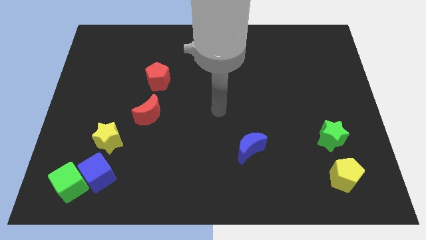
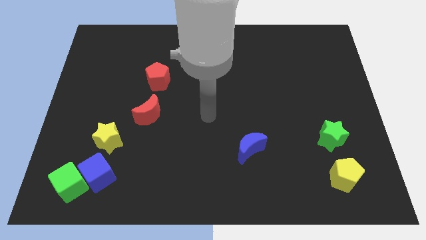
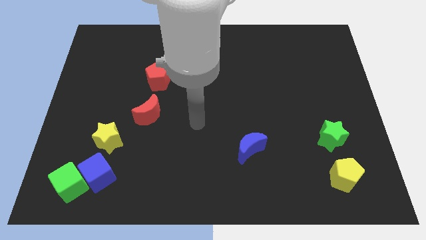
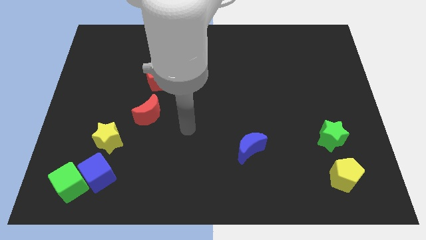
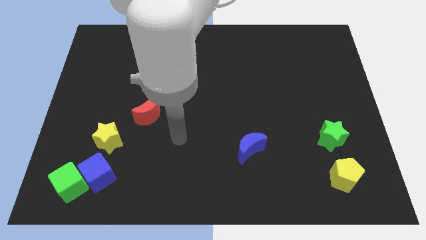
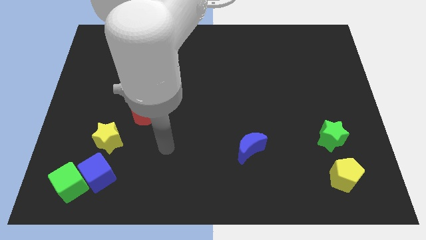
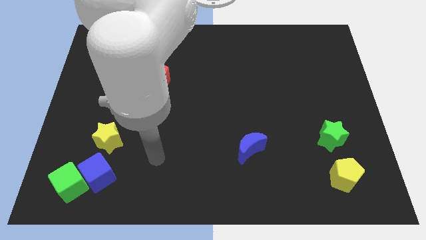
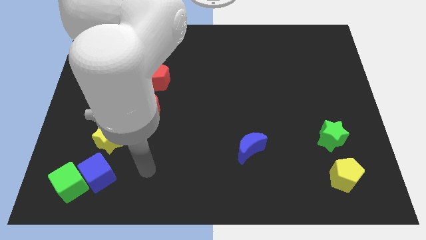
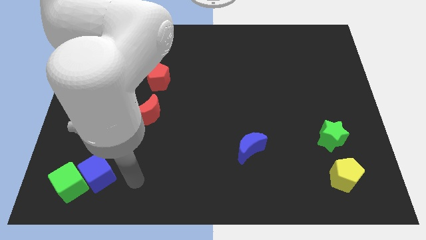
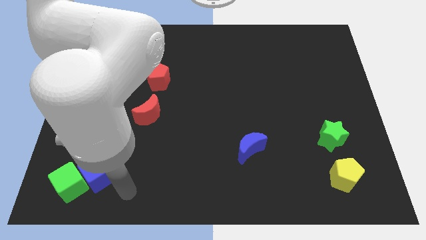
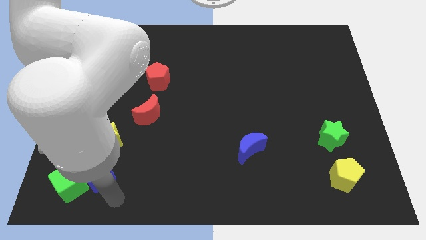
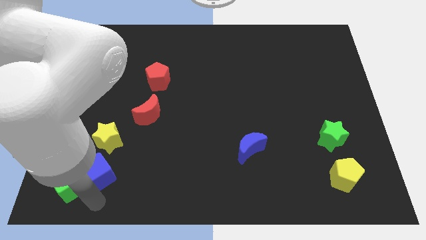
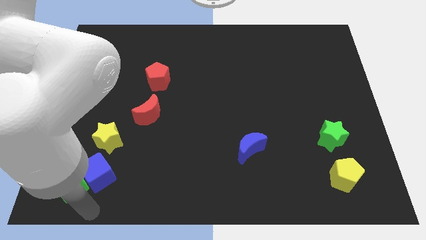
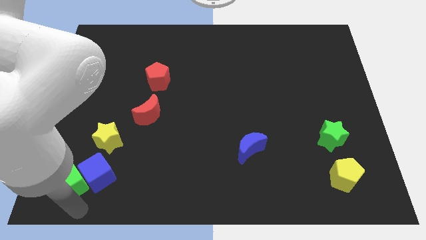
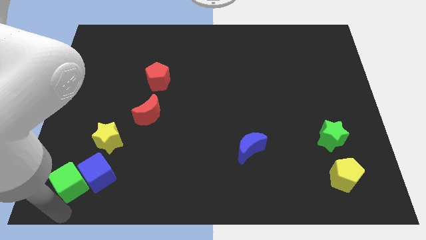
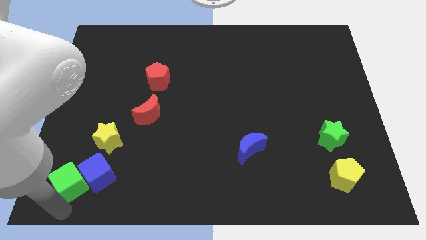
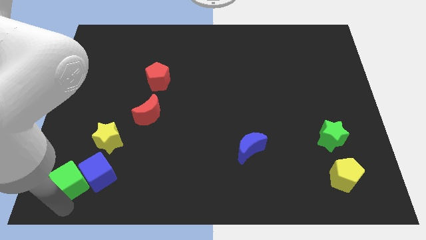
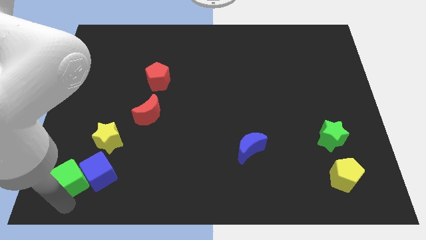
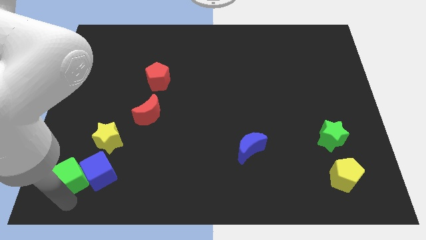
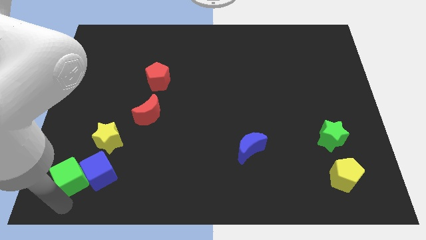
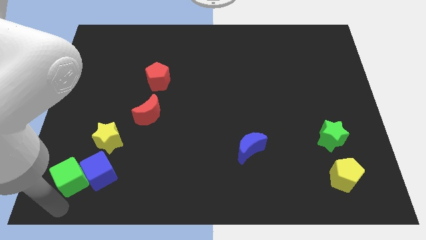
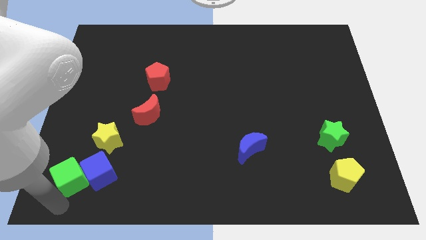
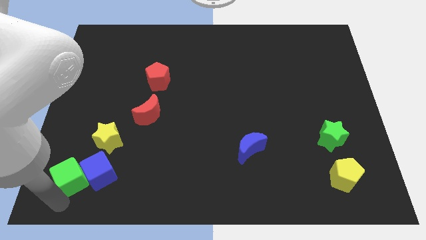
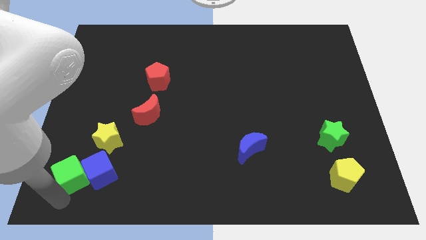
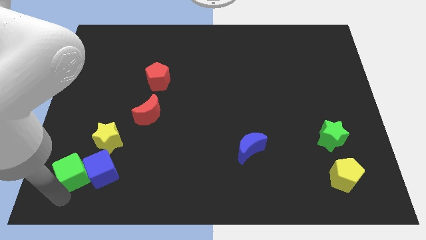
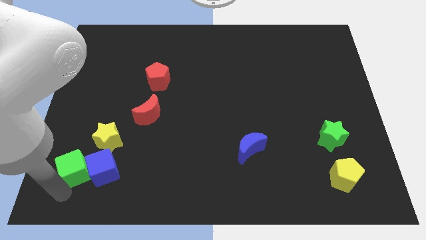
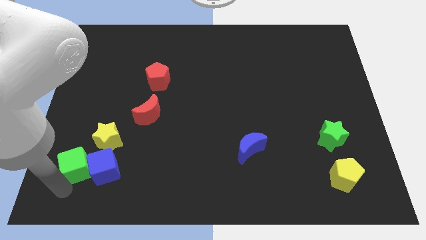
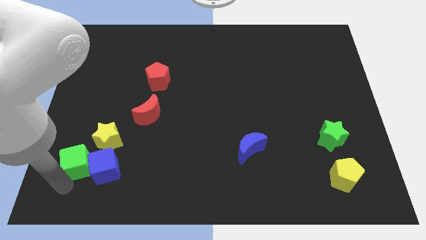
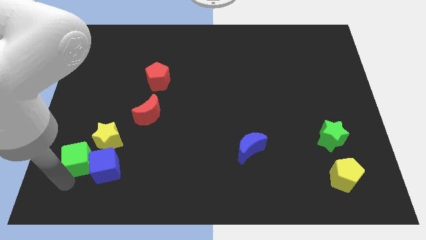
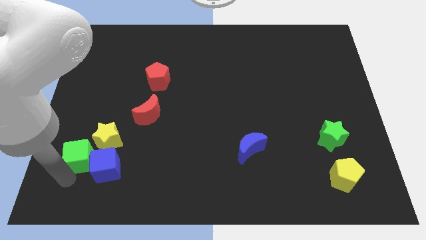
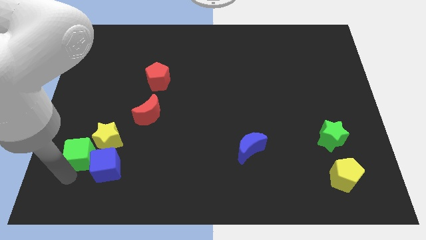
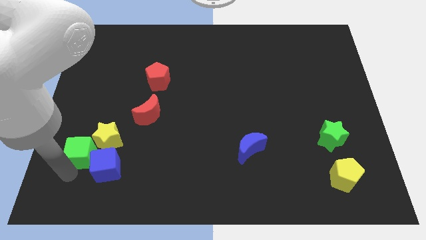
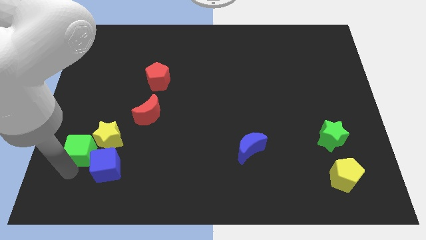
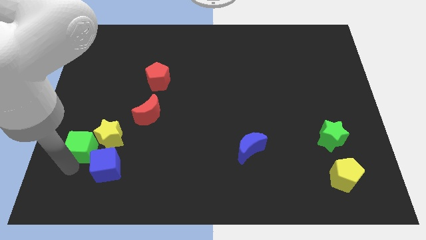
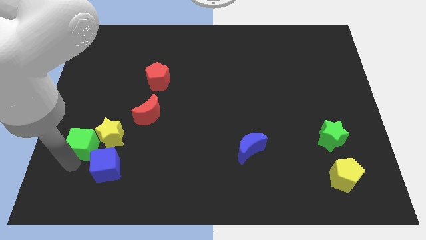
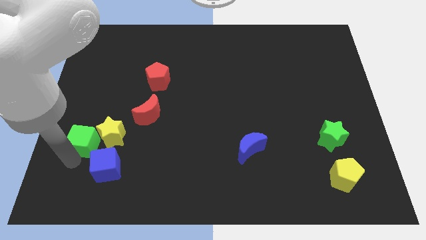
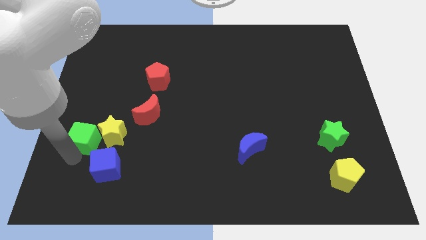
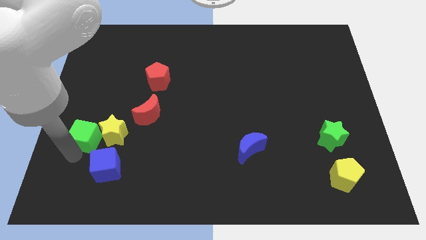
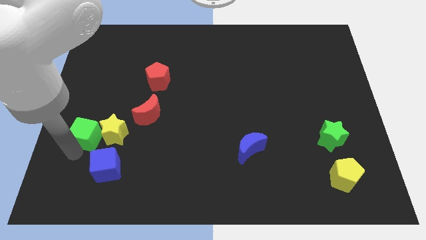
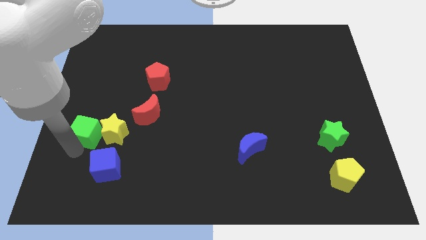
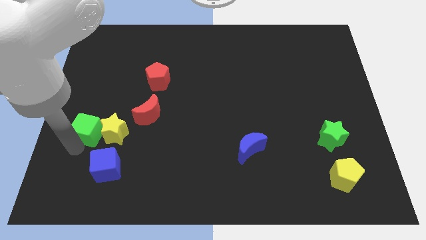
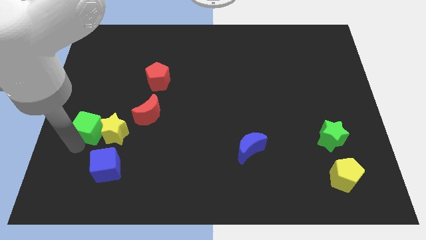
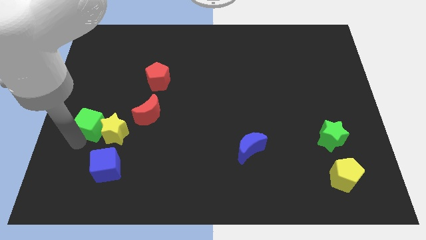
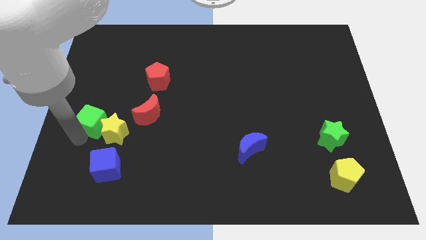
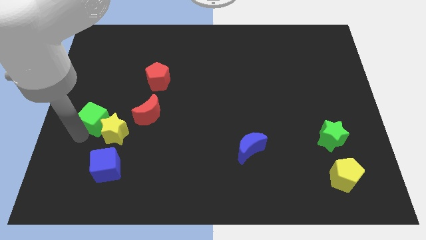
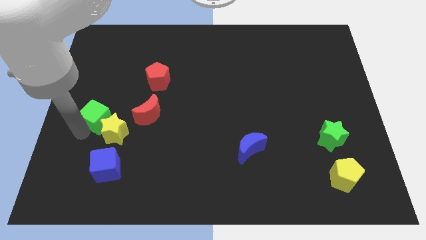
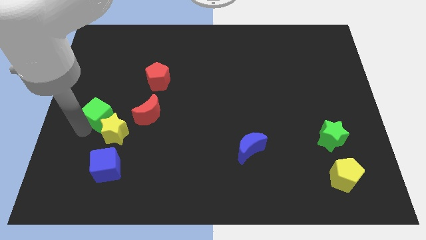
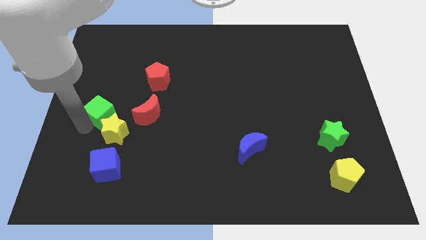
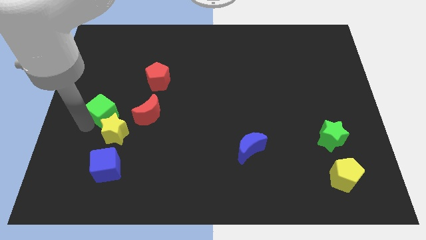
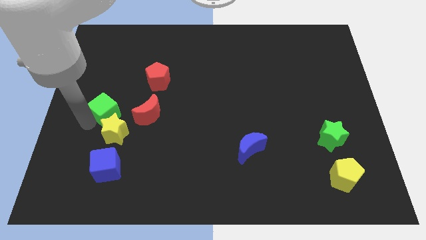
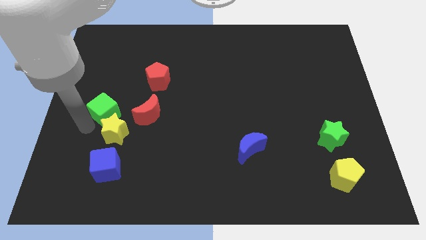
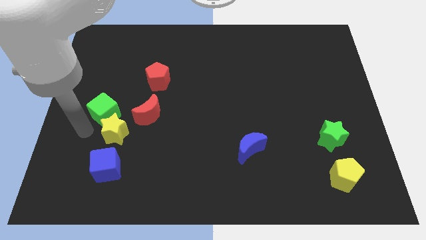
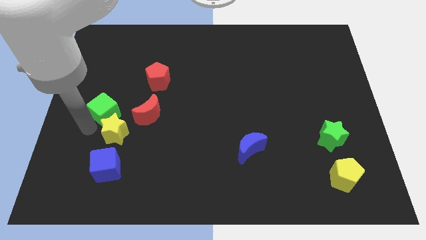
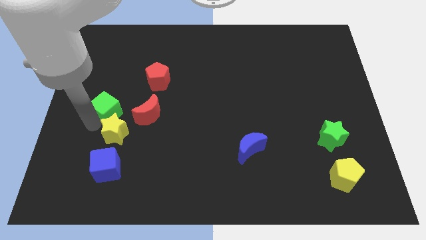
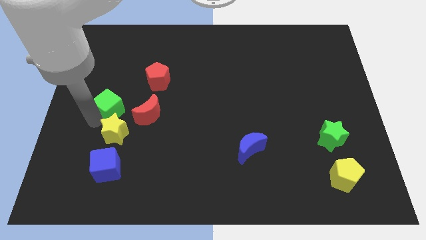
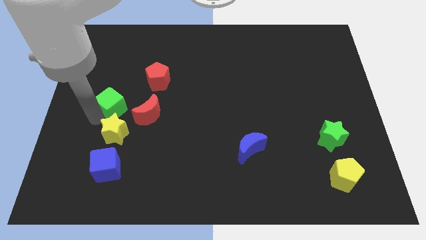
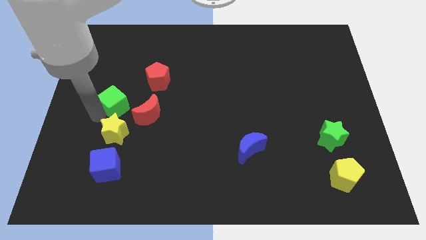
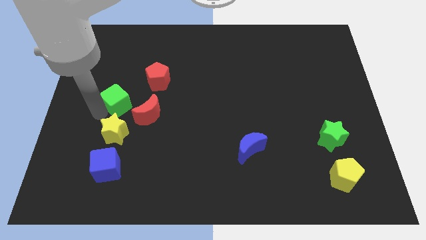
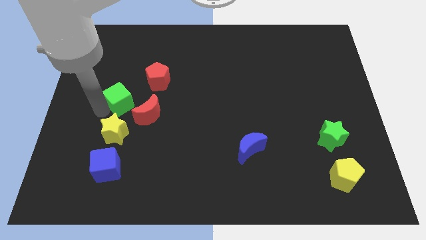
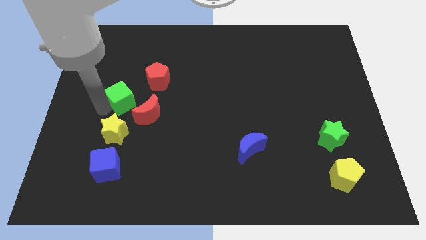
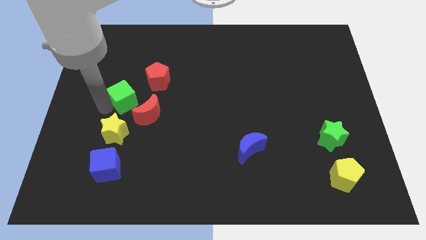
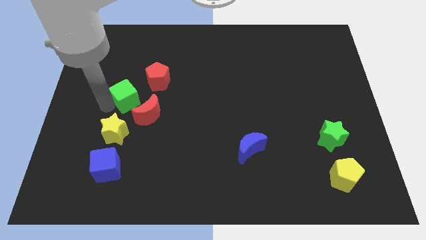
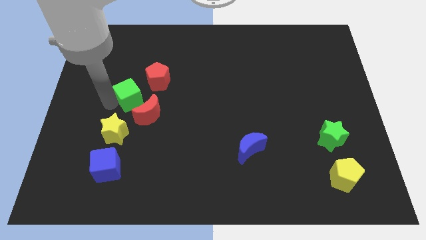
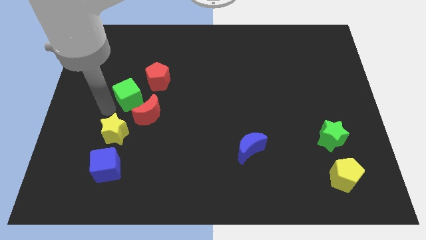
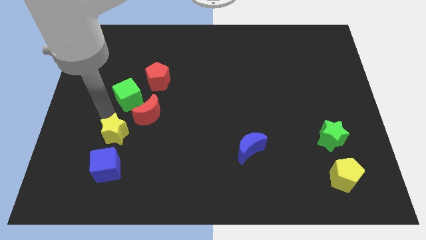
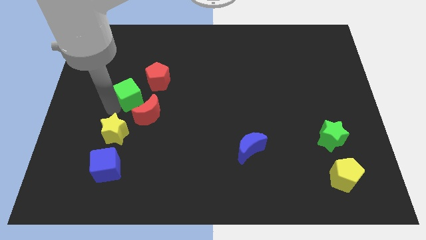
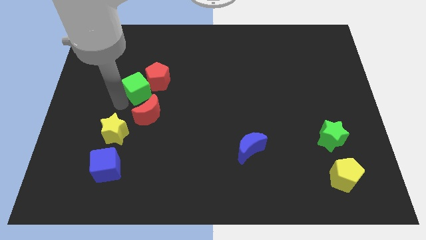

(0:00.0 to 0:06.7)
put the green cube to the red pentagon

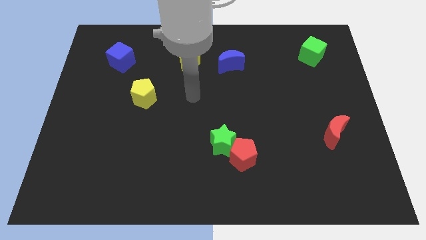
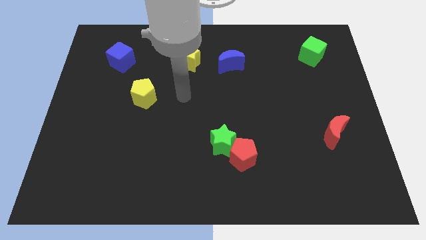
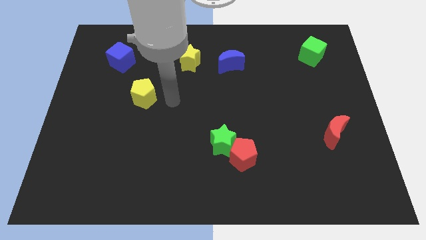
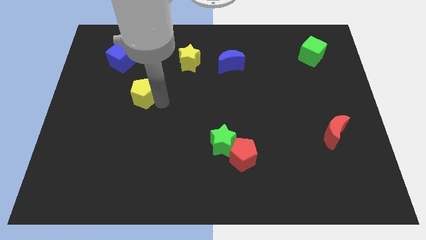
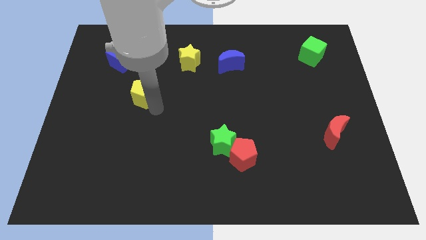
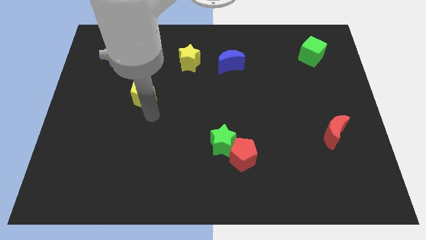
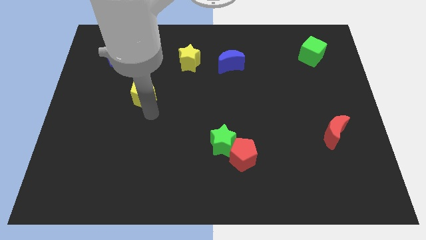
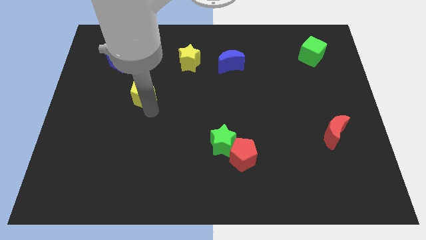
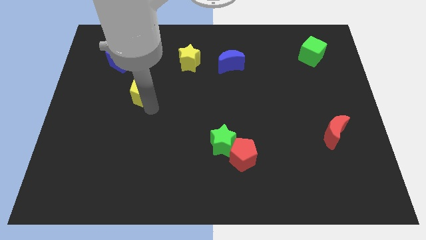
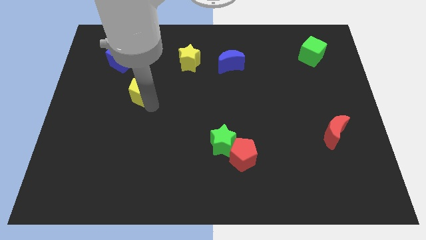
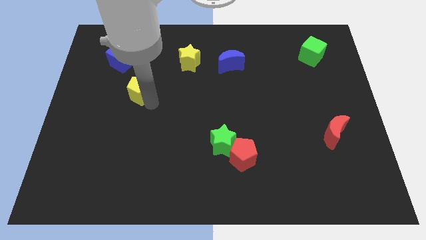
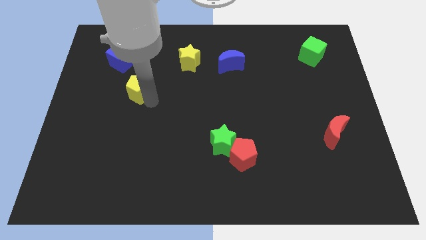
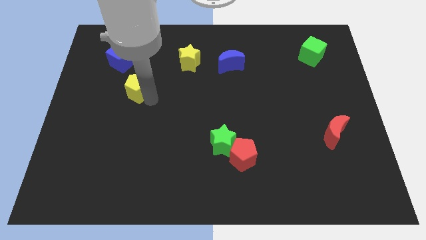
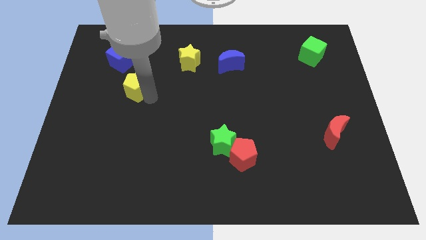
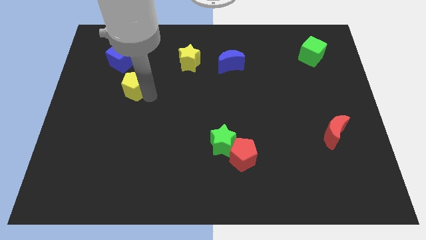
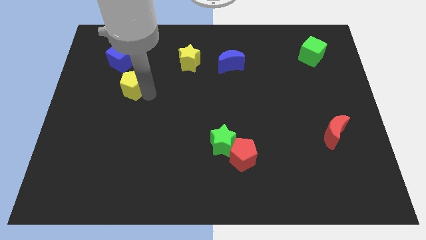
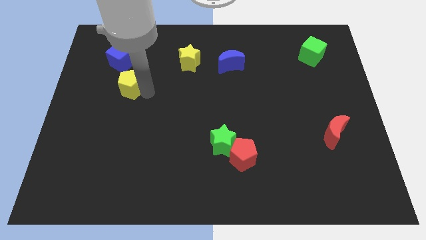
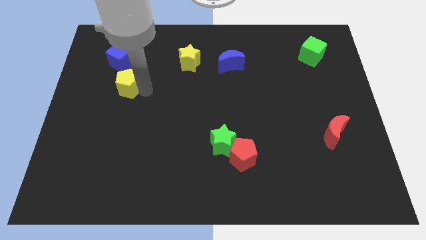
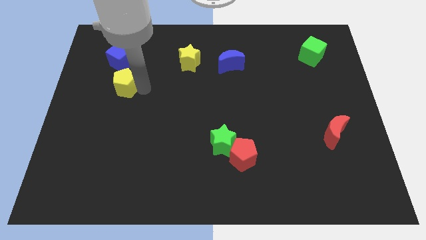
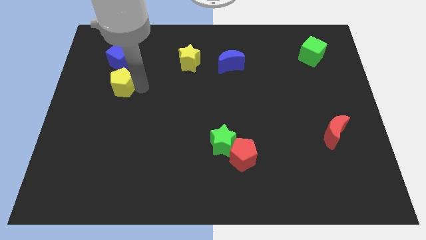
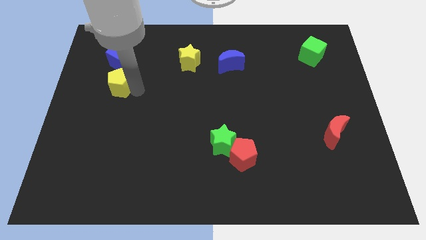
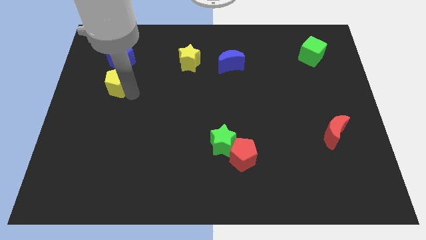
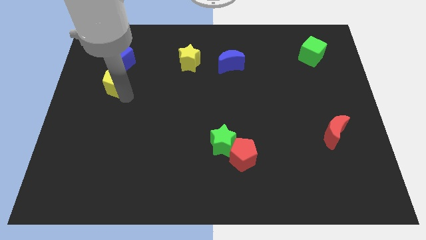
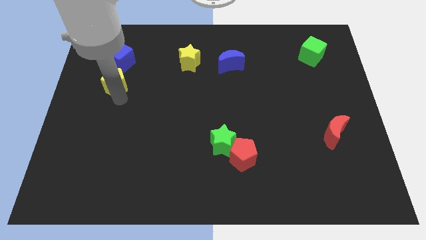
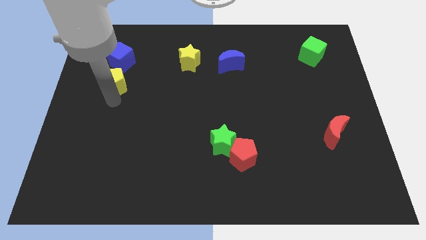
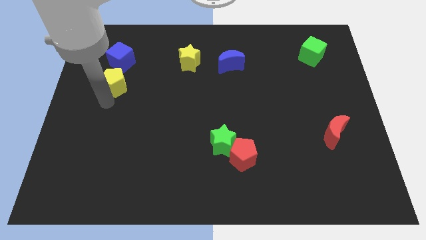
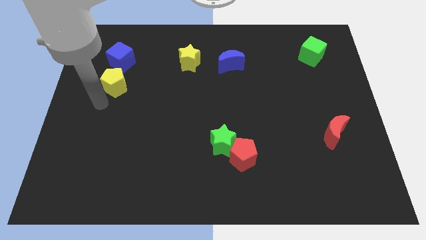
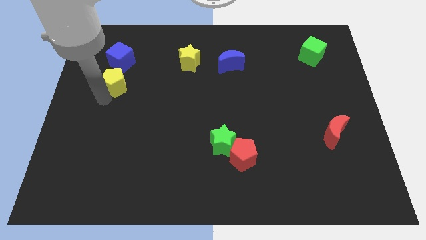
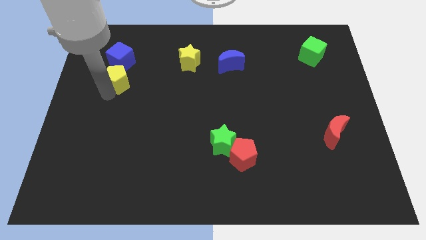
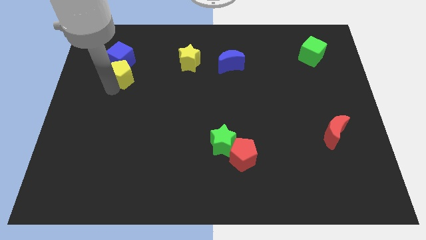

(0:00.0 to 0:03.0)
move the yellow pentagon close to the blue cube
